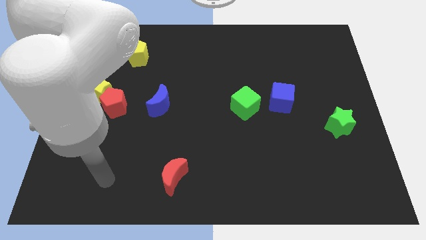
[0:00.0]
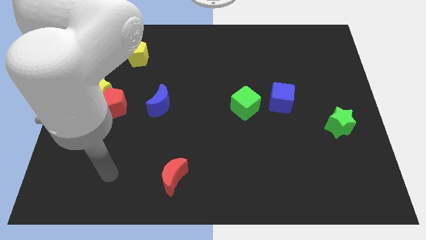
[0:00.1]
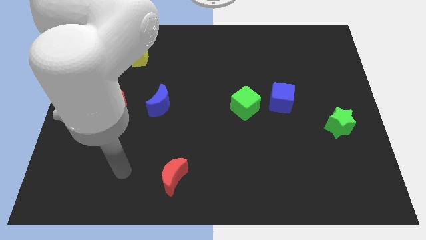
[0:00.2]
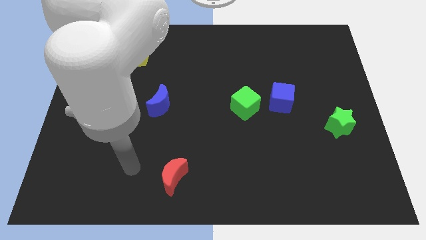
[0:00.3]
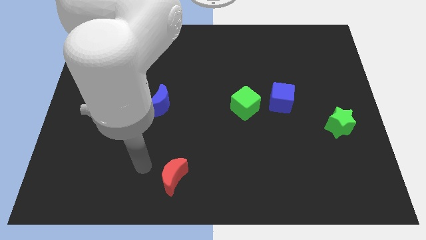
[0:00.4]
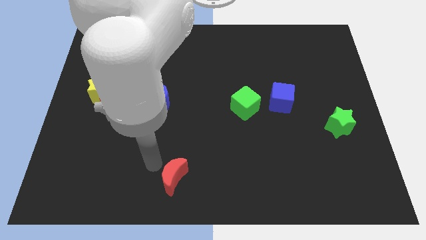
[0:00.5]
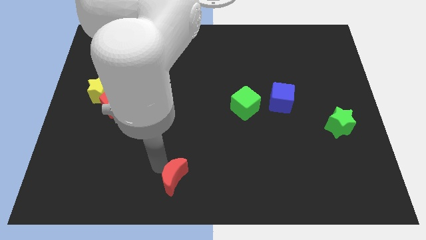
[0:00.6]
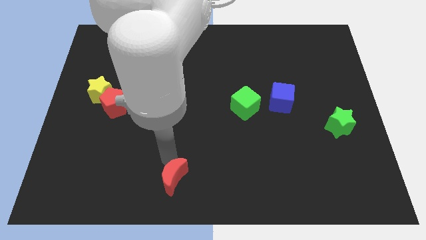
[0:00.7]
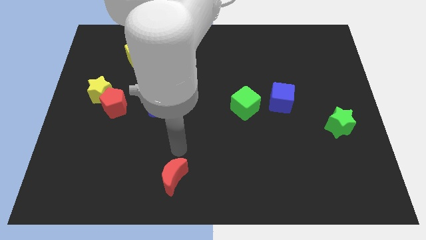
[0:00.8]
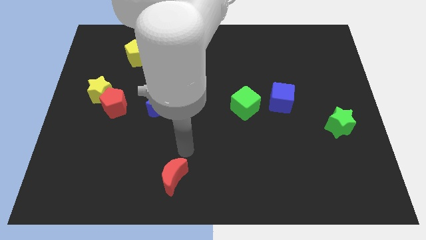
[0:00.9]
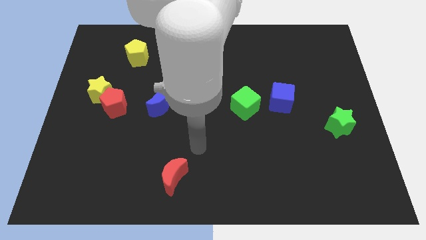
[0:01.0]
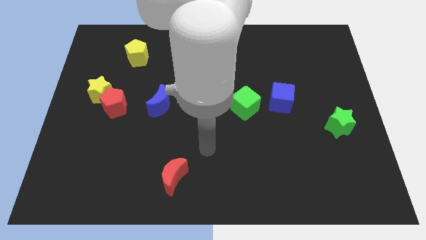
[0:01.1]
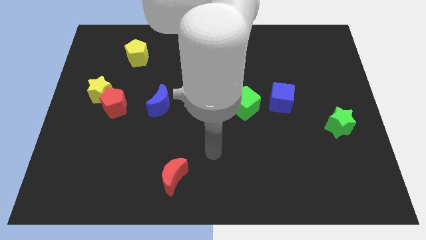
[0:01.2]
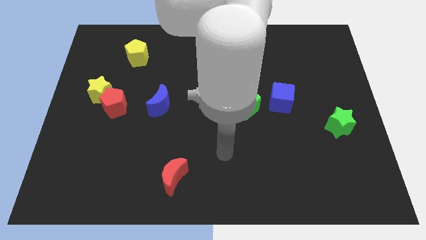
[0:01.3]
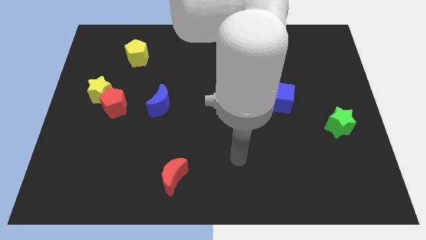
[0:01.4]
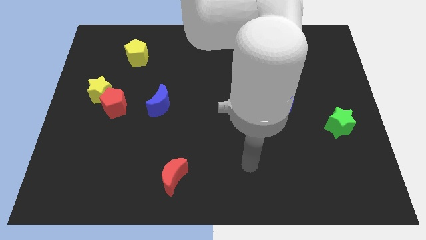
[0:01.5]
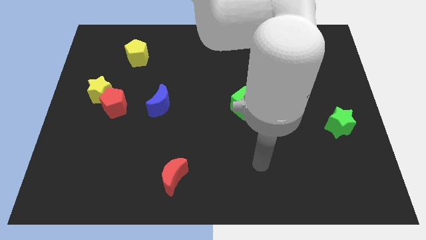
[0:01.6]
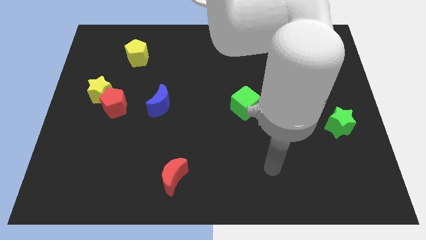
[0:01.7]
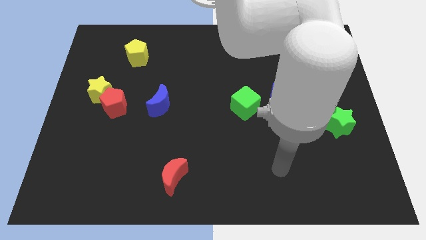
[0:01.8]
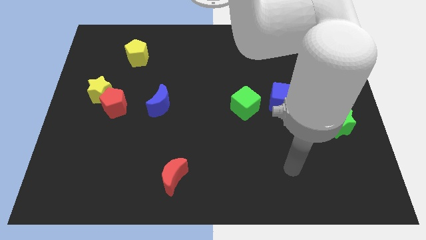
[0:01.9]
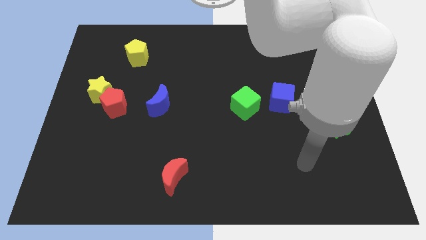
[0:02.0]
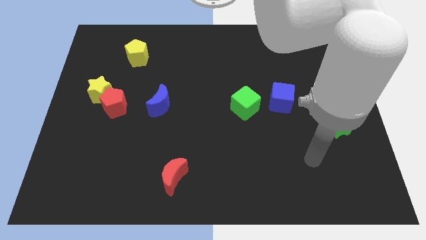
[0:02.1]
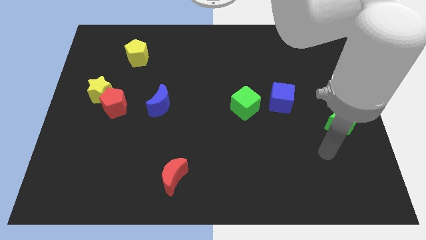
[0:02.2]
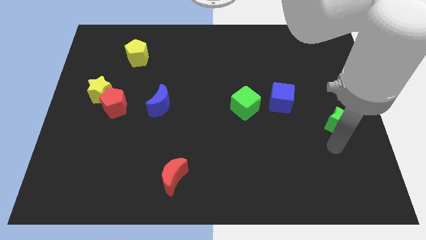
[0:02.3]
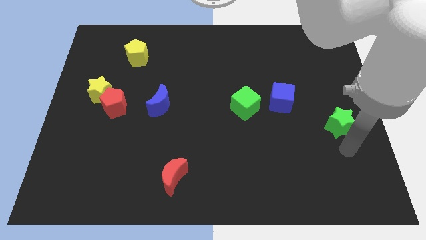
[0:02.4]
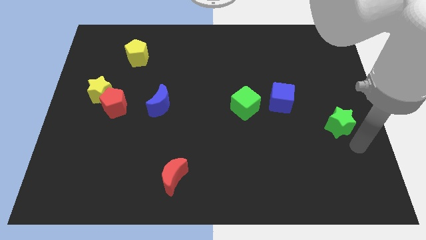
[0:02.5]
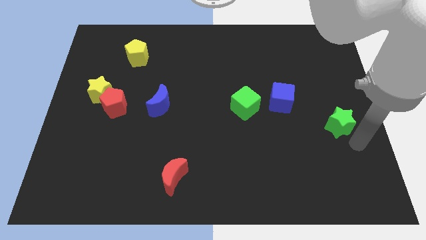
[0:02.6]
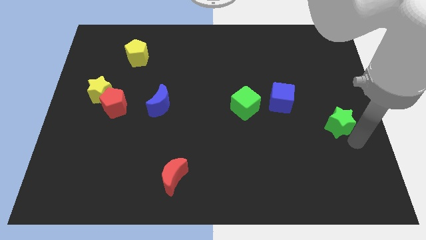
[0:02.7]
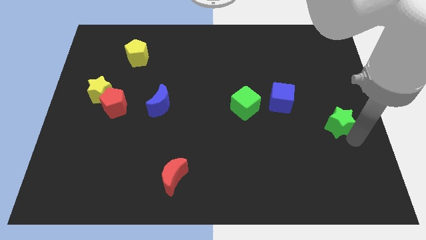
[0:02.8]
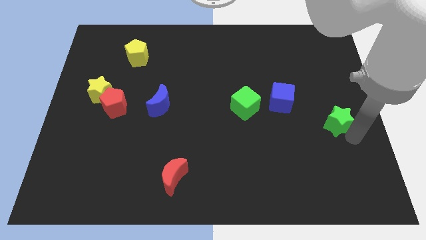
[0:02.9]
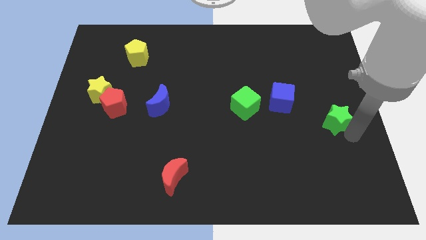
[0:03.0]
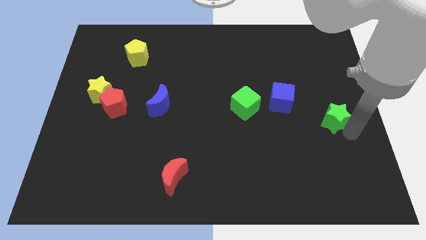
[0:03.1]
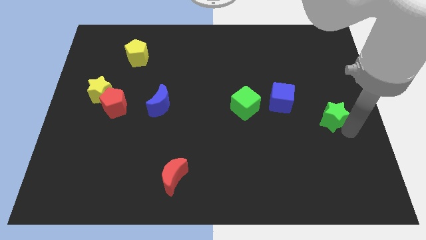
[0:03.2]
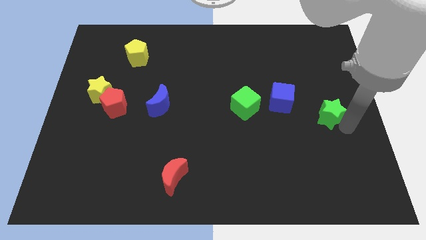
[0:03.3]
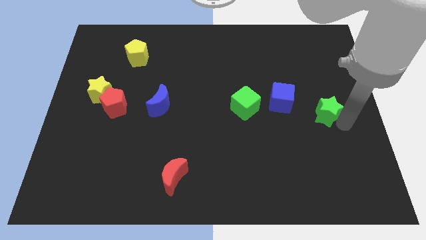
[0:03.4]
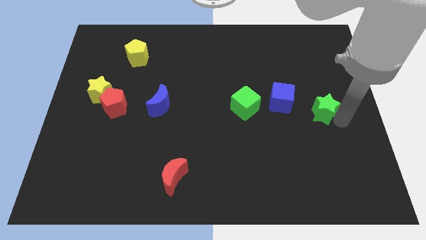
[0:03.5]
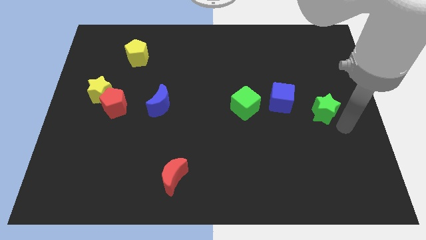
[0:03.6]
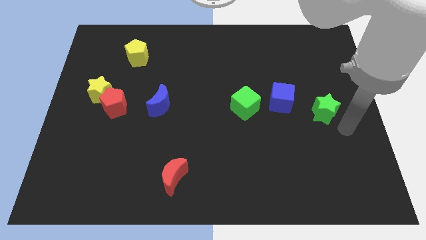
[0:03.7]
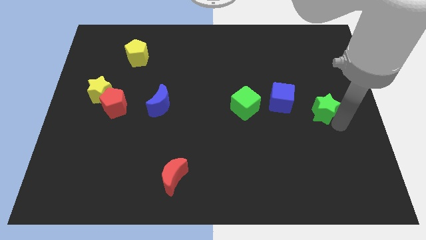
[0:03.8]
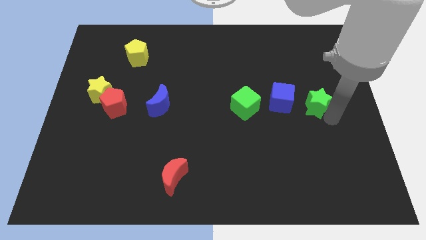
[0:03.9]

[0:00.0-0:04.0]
move the green star a bit diagonally upwards and to the left

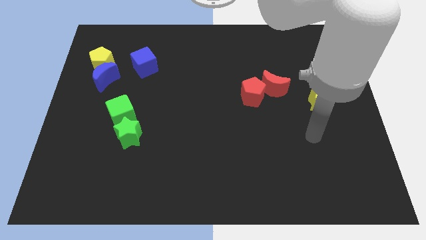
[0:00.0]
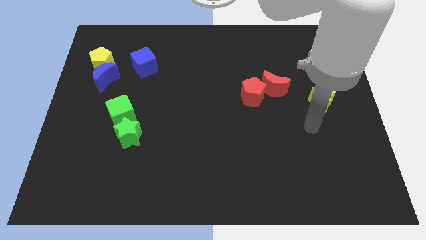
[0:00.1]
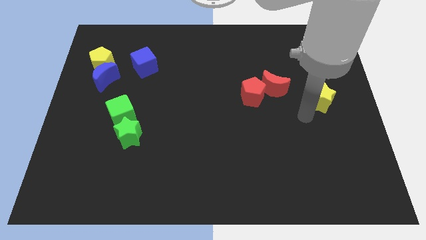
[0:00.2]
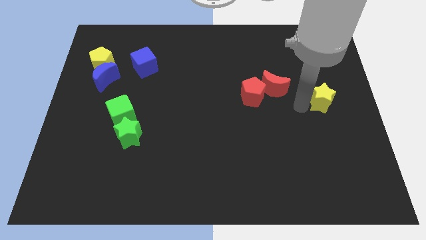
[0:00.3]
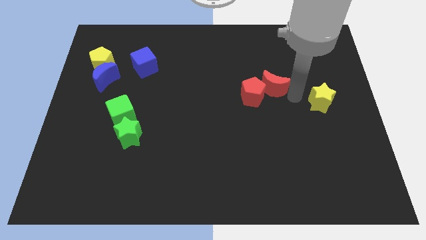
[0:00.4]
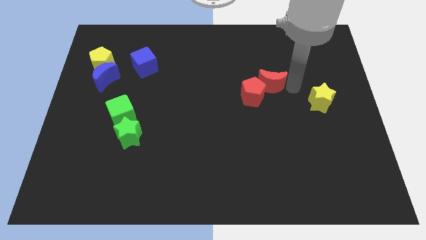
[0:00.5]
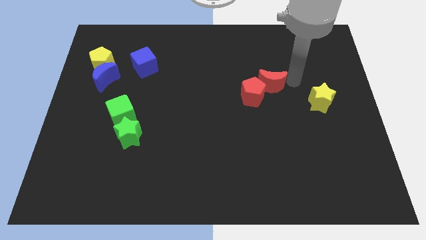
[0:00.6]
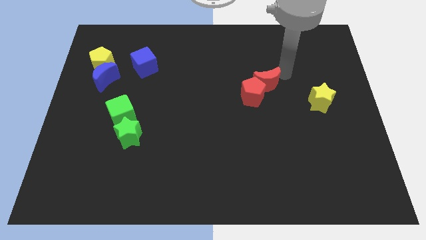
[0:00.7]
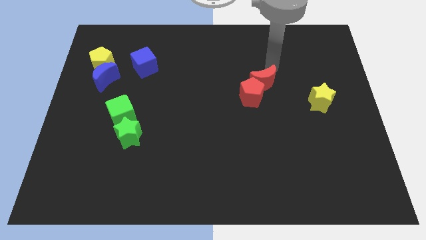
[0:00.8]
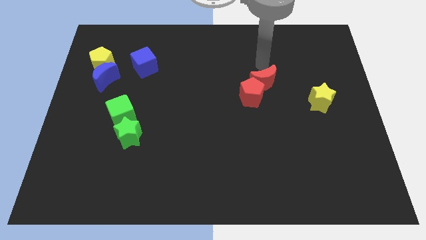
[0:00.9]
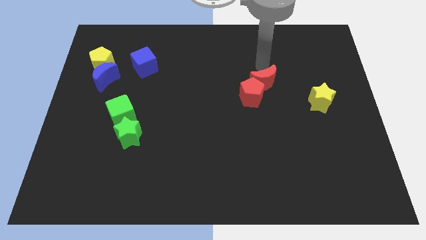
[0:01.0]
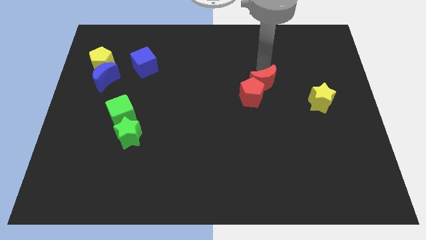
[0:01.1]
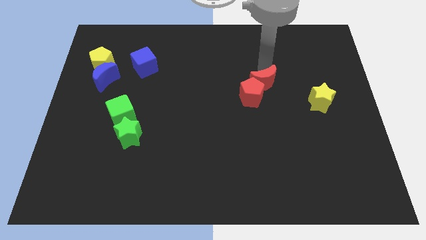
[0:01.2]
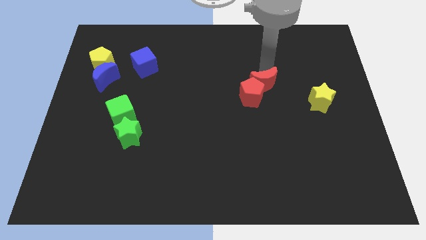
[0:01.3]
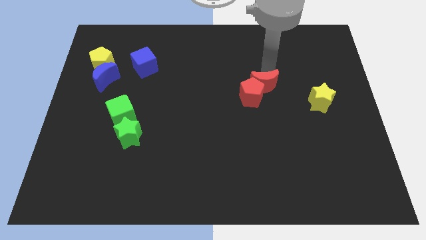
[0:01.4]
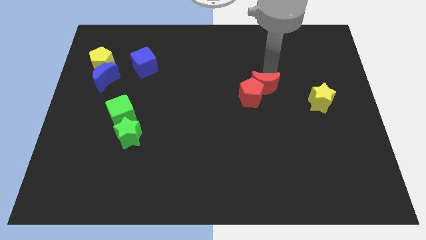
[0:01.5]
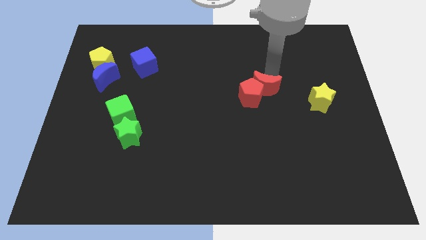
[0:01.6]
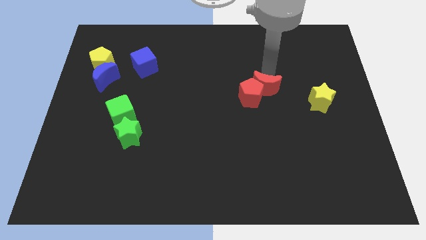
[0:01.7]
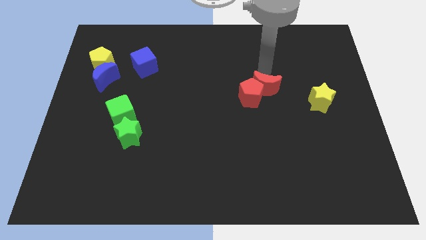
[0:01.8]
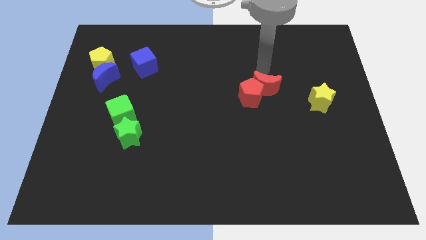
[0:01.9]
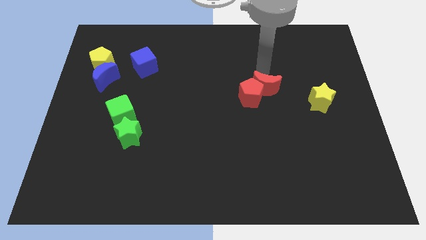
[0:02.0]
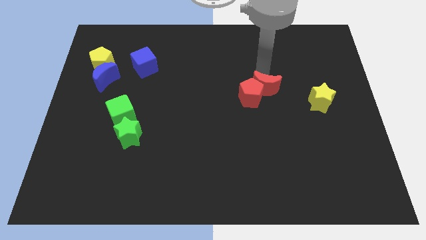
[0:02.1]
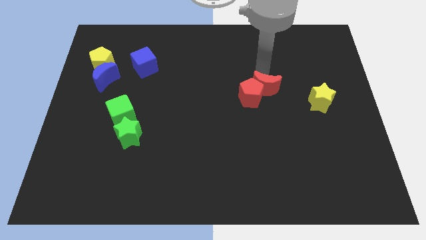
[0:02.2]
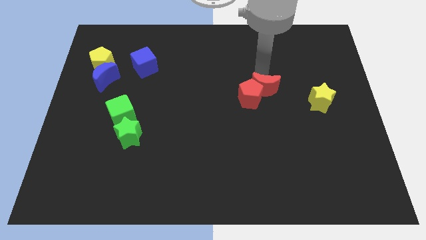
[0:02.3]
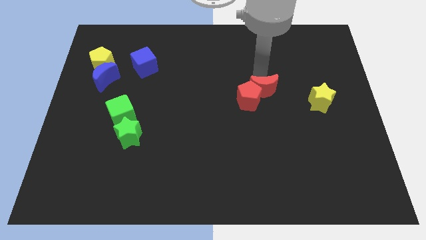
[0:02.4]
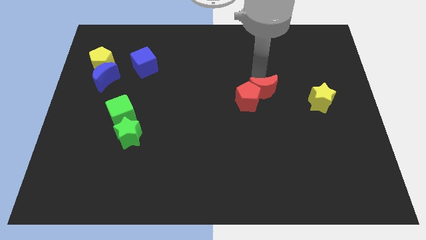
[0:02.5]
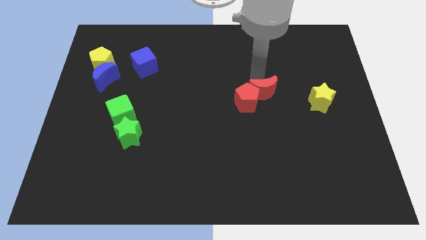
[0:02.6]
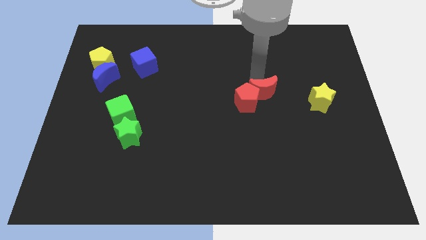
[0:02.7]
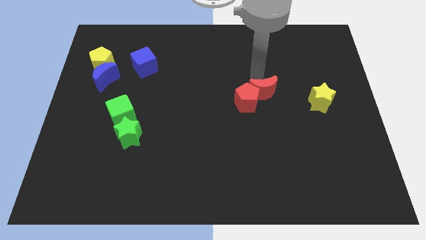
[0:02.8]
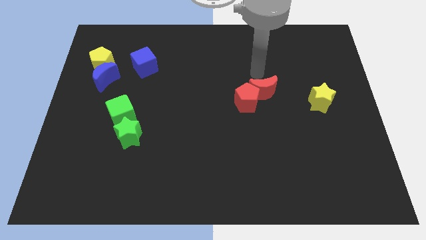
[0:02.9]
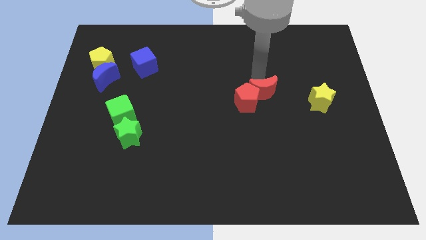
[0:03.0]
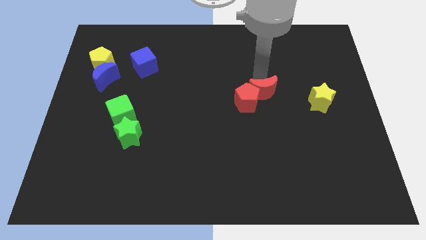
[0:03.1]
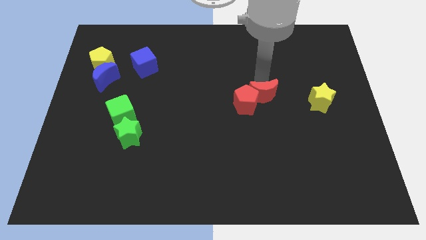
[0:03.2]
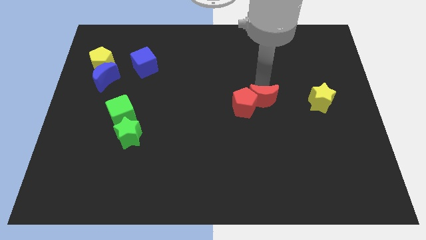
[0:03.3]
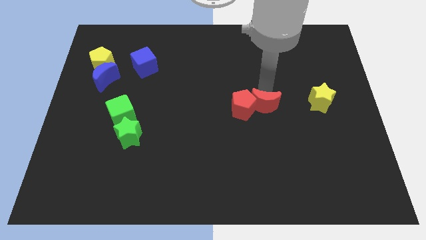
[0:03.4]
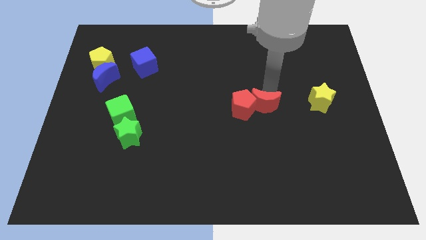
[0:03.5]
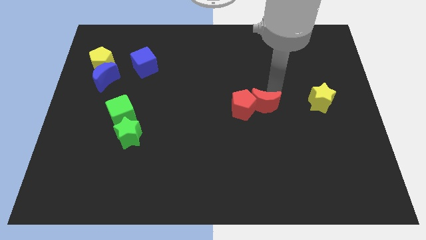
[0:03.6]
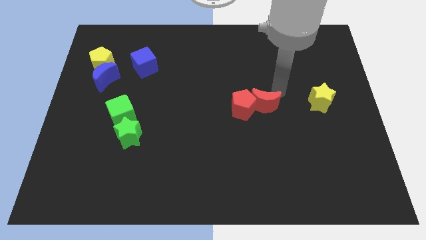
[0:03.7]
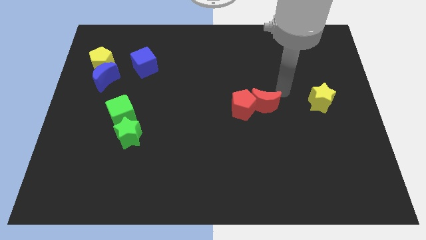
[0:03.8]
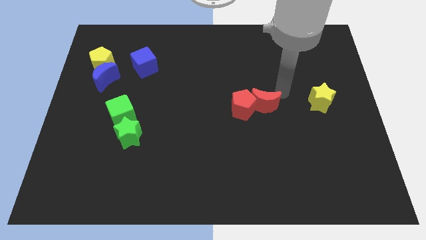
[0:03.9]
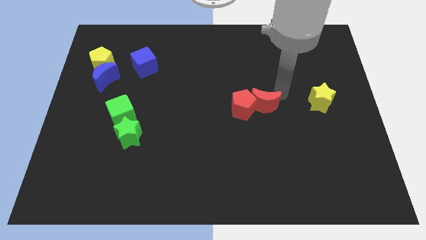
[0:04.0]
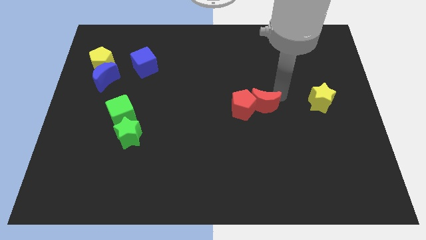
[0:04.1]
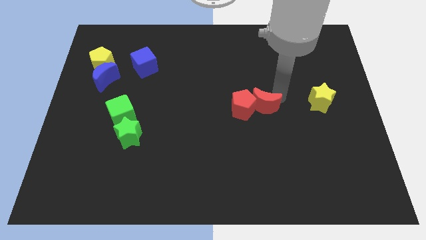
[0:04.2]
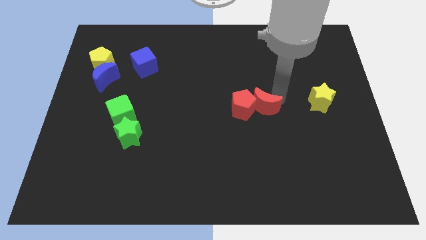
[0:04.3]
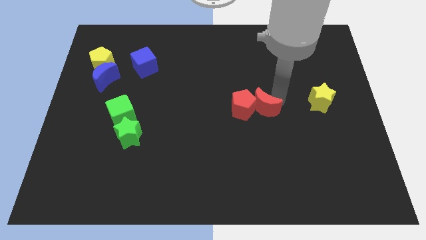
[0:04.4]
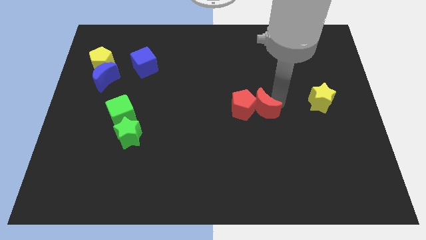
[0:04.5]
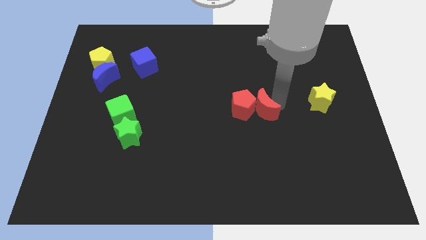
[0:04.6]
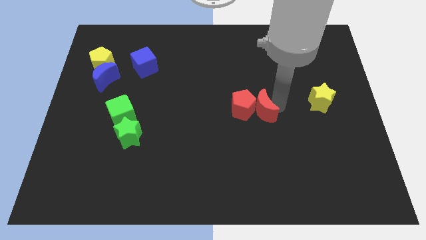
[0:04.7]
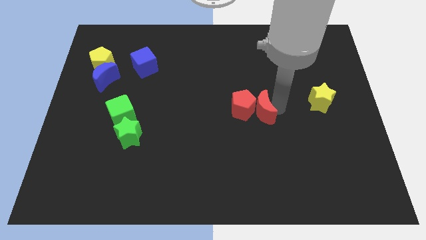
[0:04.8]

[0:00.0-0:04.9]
slightly push the red moon diagonally downwards and left
